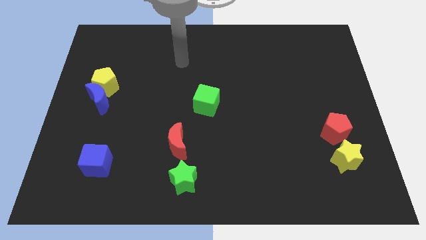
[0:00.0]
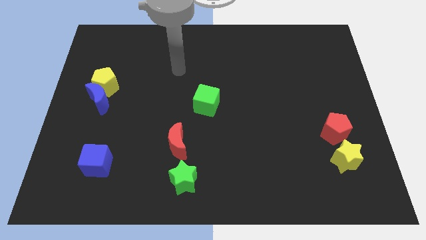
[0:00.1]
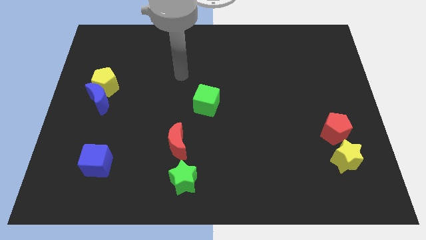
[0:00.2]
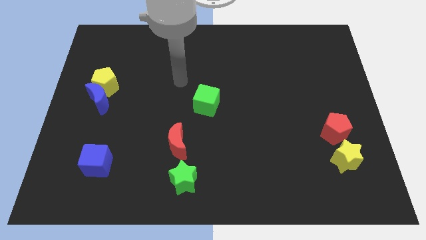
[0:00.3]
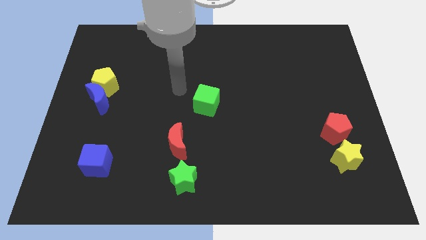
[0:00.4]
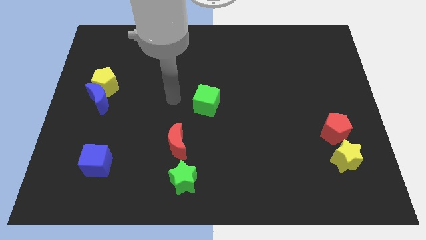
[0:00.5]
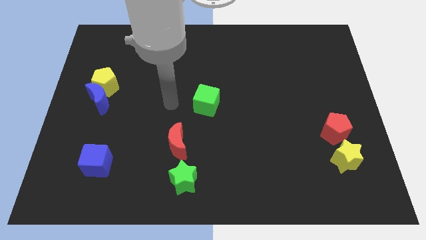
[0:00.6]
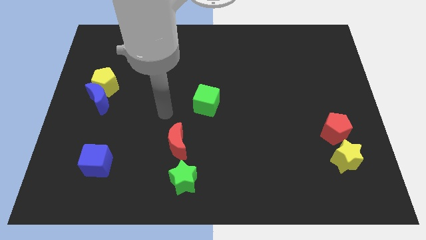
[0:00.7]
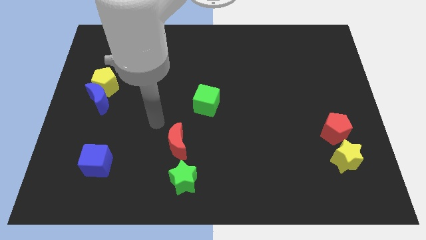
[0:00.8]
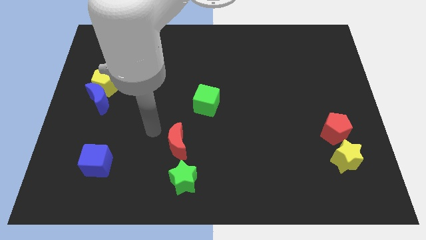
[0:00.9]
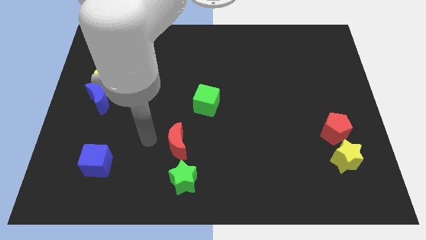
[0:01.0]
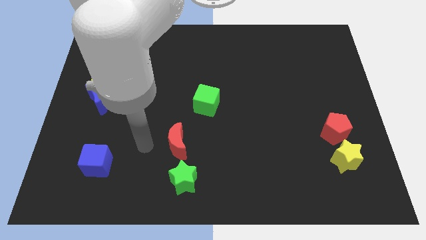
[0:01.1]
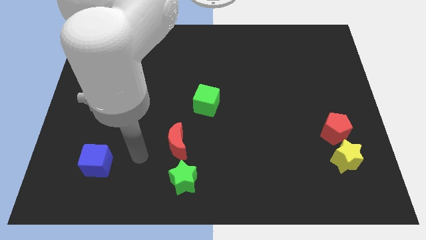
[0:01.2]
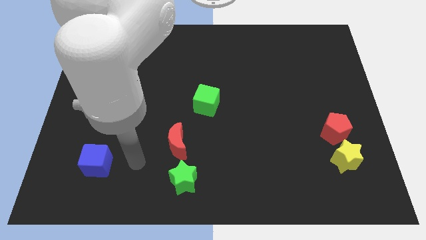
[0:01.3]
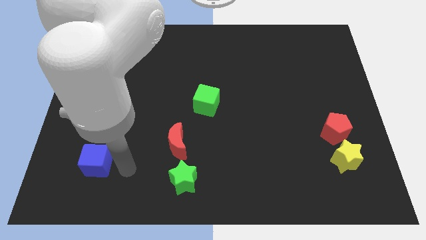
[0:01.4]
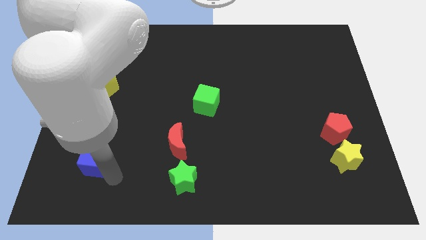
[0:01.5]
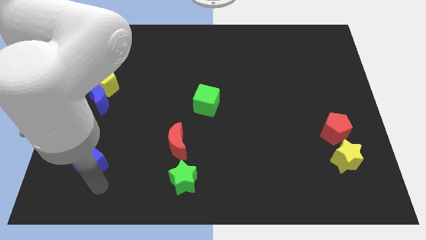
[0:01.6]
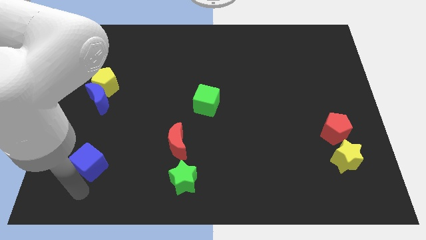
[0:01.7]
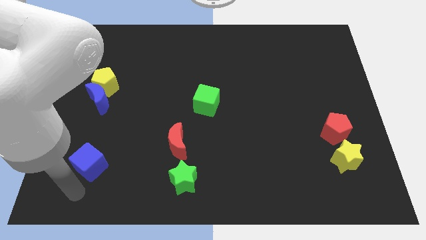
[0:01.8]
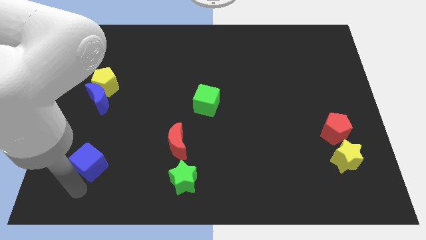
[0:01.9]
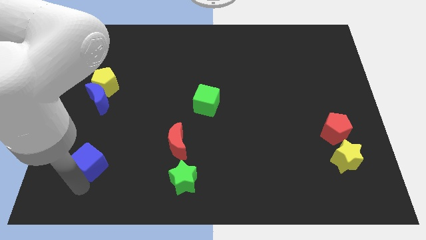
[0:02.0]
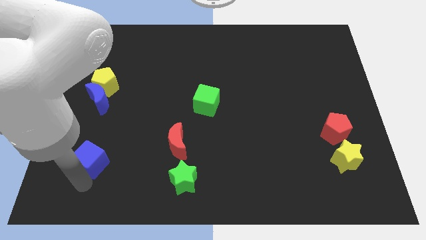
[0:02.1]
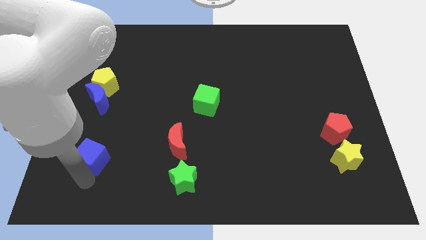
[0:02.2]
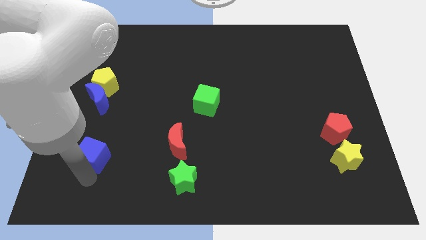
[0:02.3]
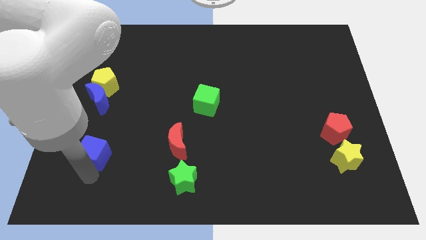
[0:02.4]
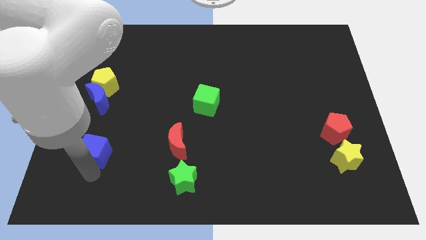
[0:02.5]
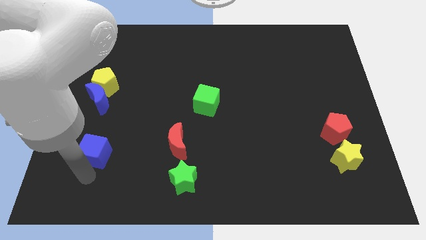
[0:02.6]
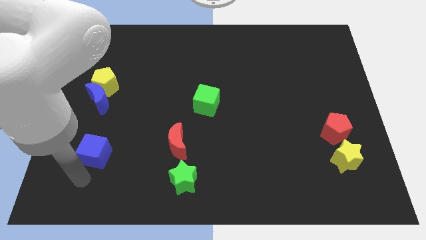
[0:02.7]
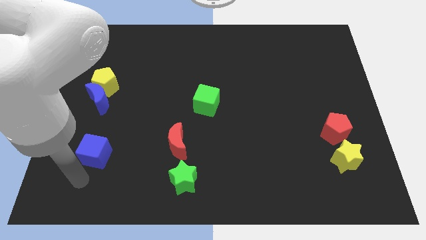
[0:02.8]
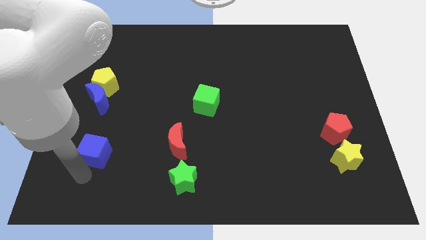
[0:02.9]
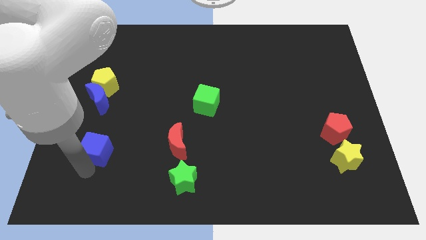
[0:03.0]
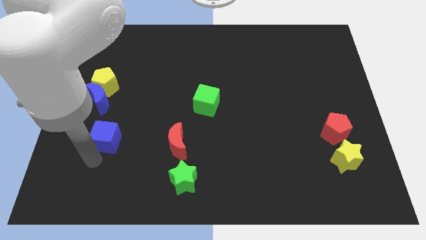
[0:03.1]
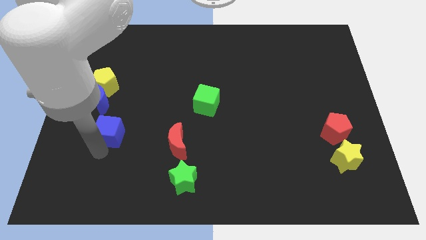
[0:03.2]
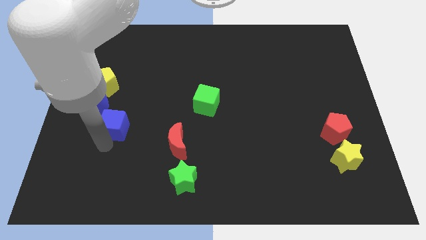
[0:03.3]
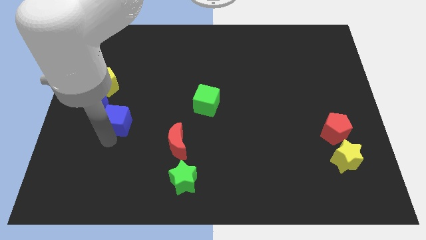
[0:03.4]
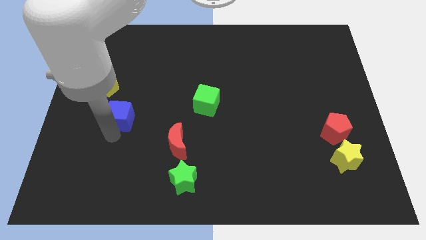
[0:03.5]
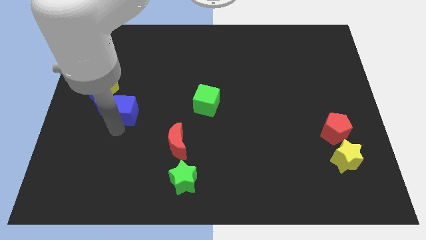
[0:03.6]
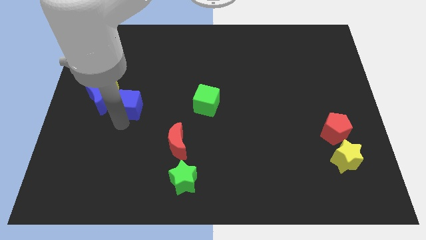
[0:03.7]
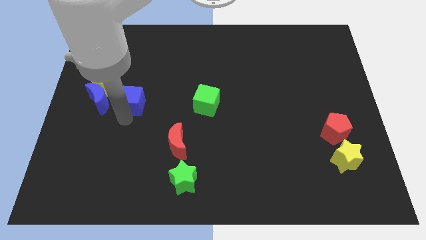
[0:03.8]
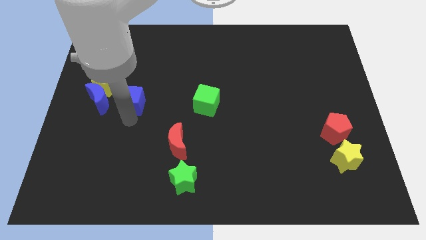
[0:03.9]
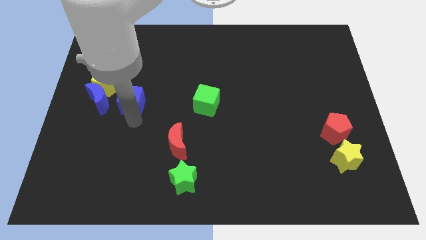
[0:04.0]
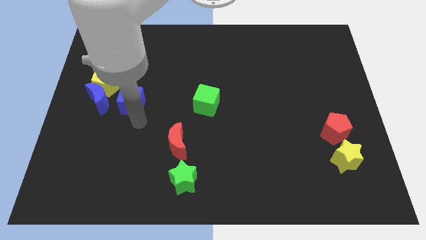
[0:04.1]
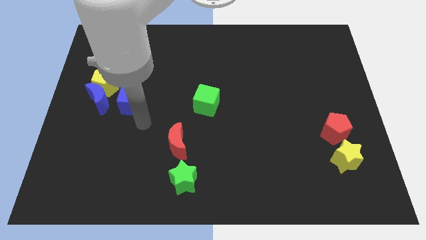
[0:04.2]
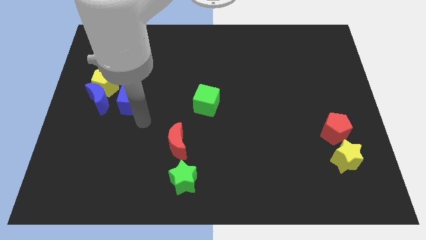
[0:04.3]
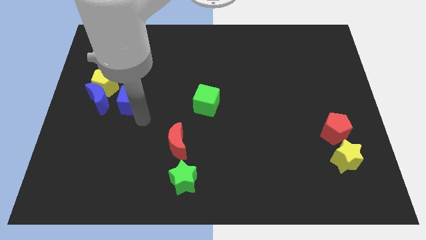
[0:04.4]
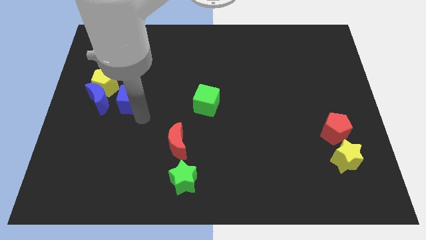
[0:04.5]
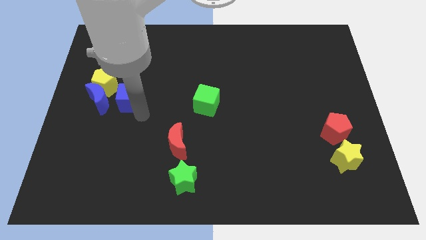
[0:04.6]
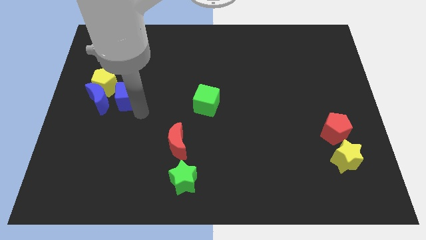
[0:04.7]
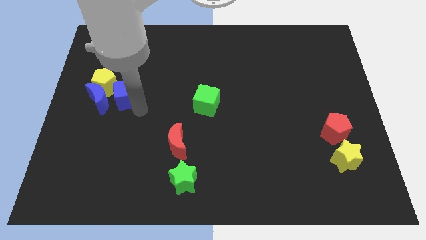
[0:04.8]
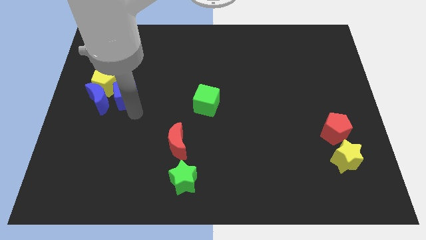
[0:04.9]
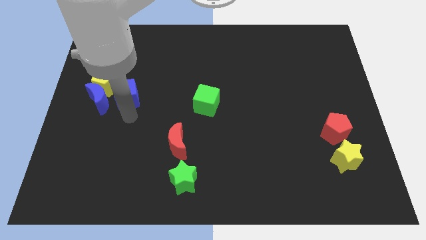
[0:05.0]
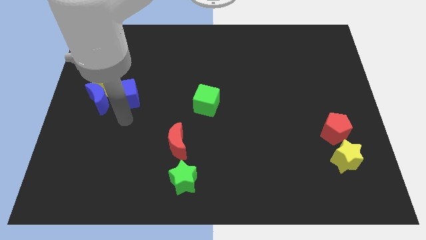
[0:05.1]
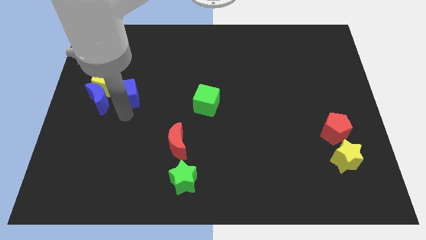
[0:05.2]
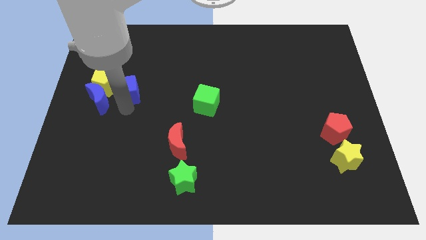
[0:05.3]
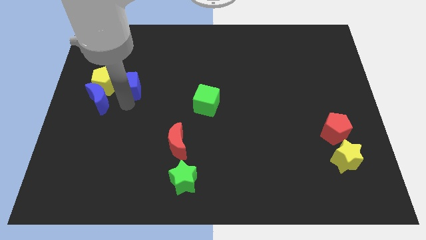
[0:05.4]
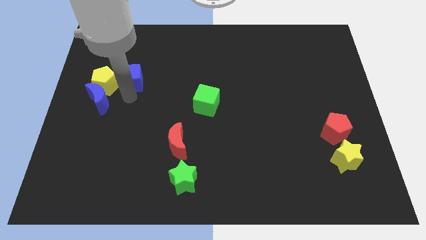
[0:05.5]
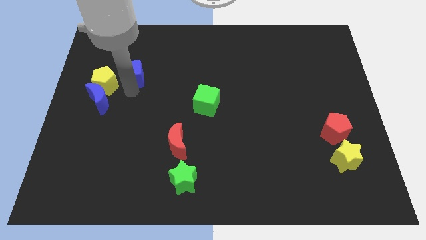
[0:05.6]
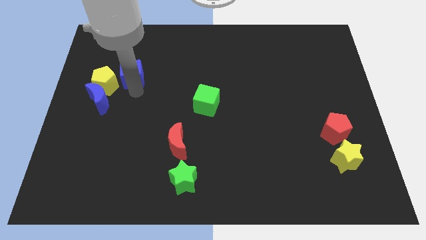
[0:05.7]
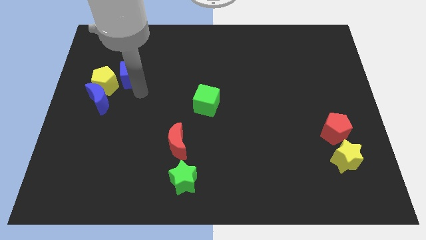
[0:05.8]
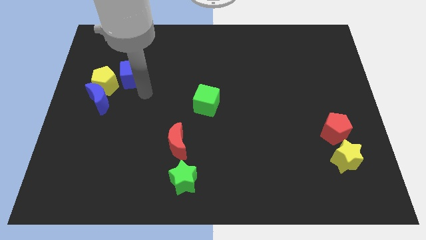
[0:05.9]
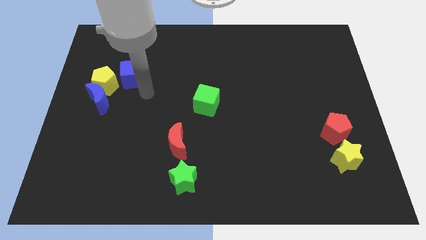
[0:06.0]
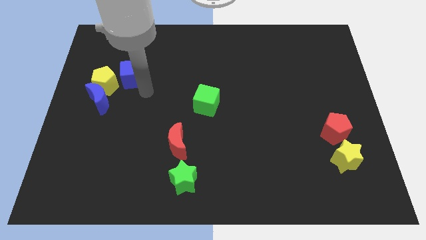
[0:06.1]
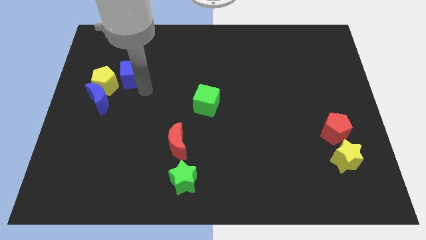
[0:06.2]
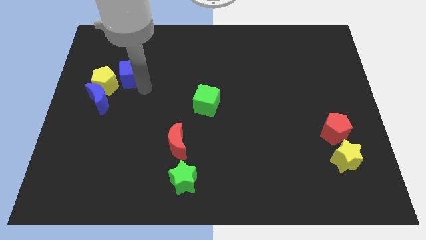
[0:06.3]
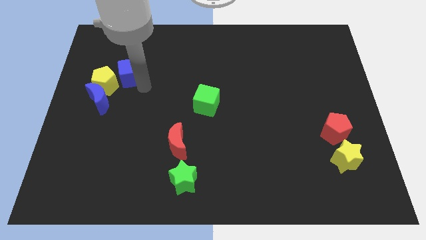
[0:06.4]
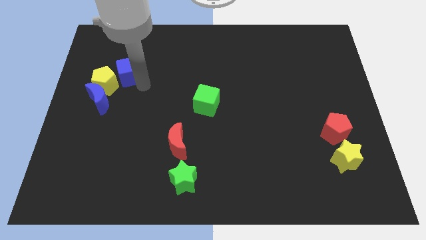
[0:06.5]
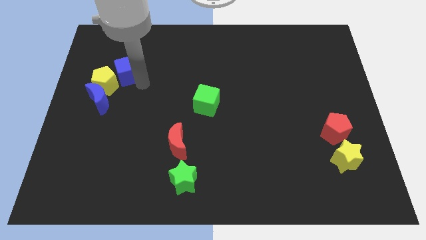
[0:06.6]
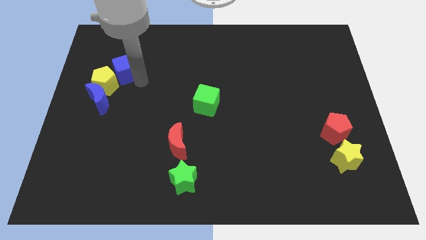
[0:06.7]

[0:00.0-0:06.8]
push the blue cube to the top of the yellow pentagon
